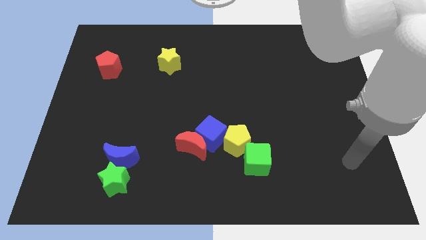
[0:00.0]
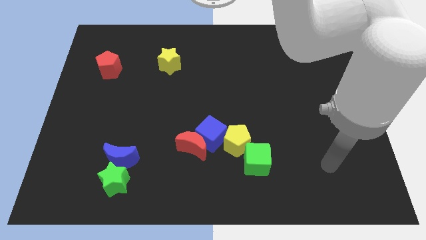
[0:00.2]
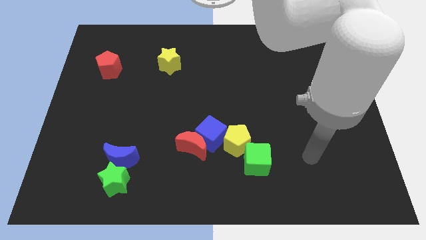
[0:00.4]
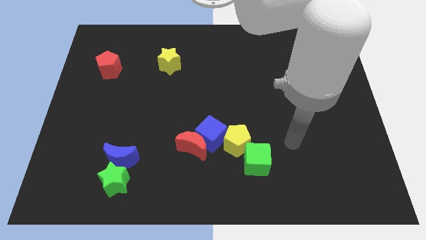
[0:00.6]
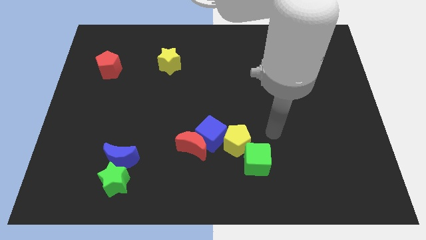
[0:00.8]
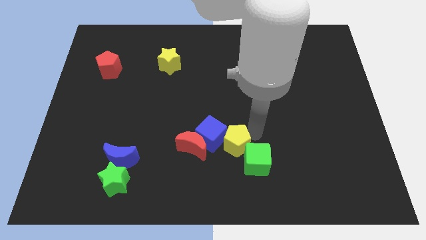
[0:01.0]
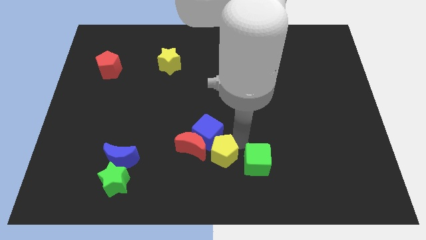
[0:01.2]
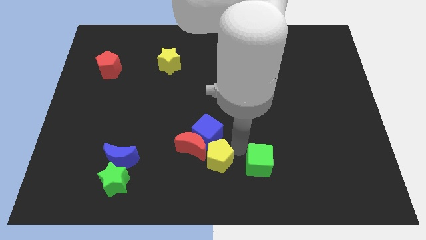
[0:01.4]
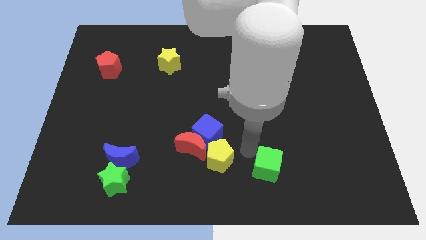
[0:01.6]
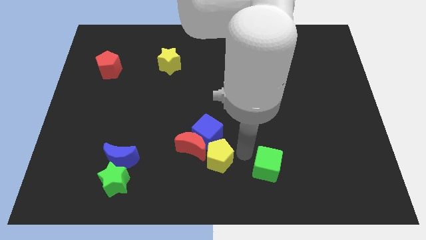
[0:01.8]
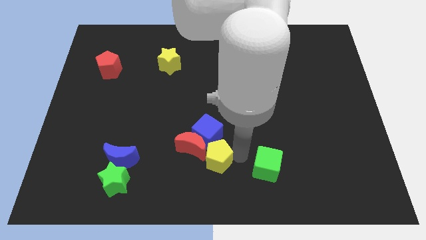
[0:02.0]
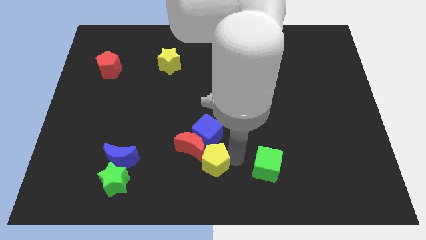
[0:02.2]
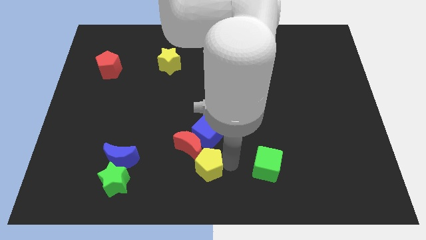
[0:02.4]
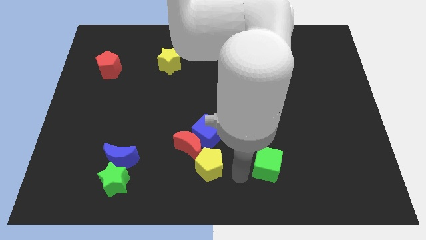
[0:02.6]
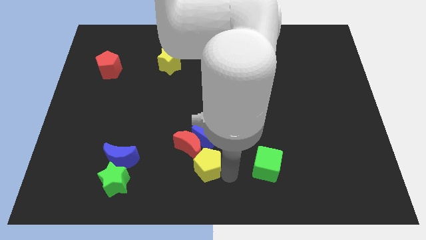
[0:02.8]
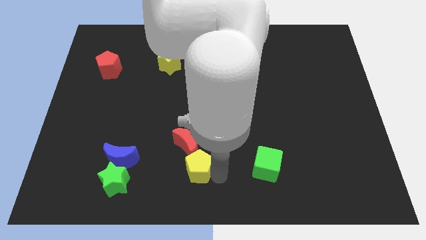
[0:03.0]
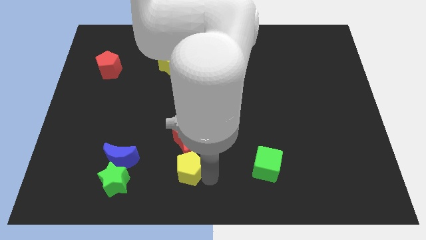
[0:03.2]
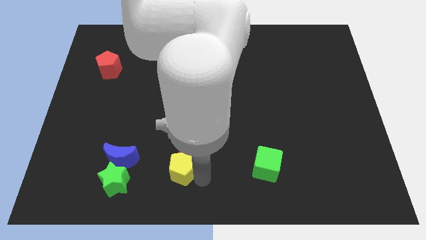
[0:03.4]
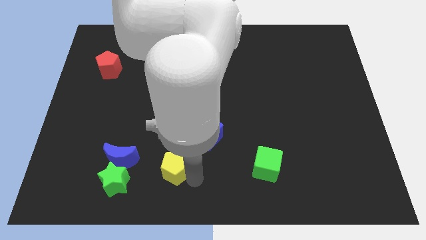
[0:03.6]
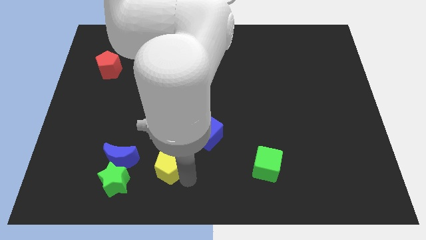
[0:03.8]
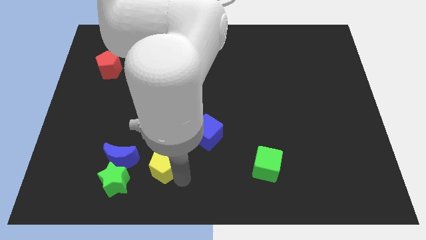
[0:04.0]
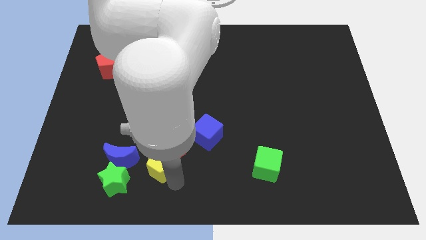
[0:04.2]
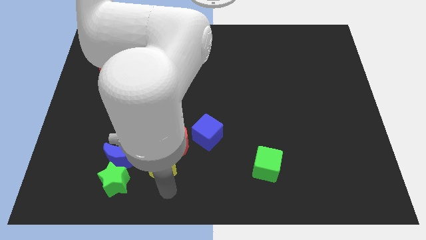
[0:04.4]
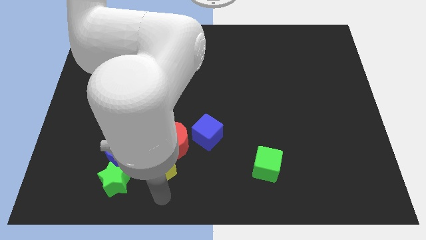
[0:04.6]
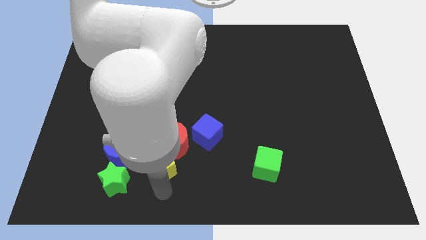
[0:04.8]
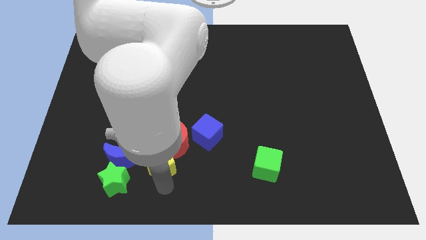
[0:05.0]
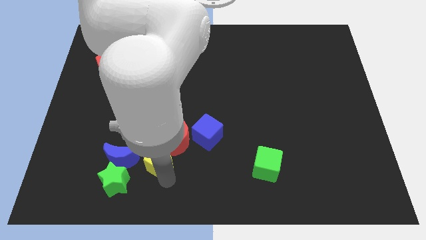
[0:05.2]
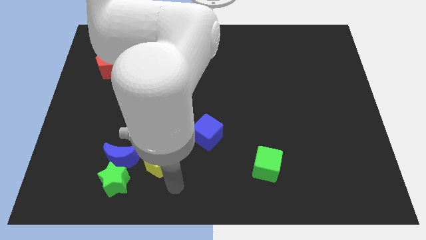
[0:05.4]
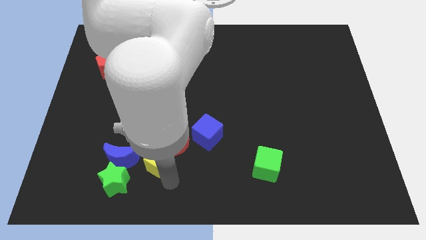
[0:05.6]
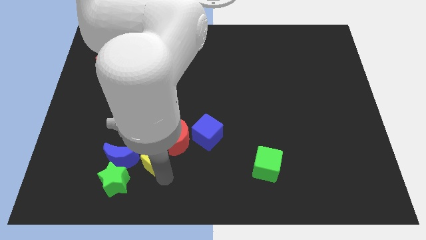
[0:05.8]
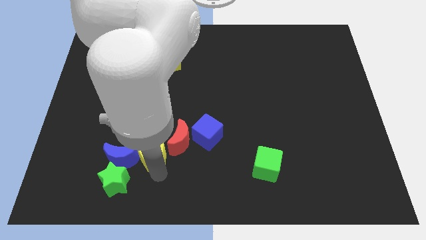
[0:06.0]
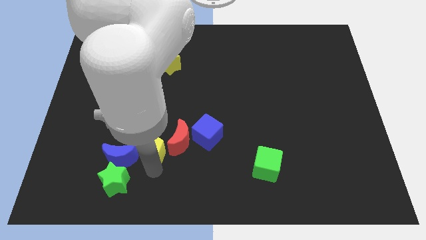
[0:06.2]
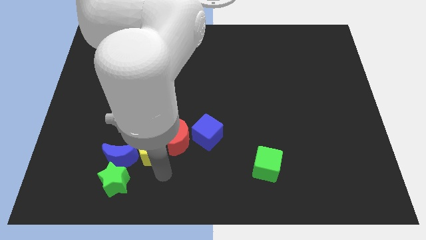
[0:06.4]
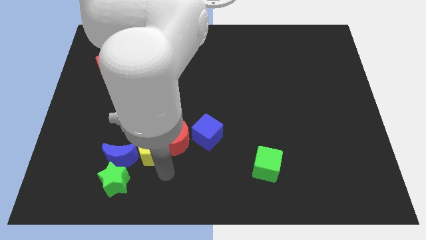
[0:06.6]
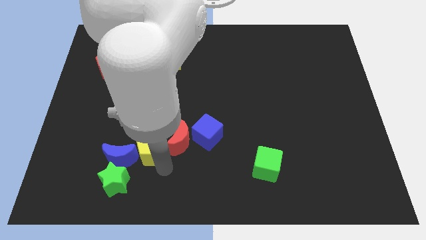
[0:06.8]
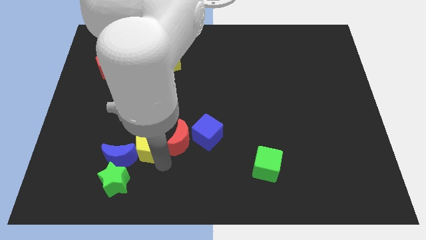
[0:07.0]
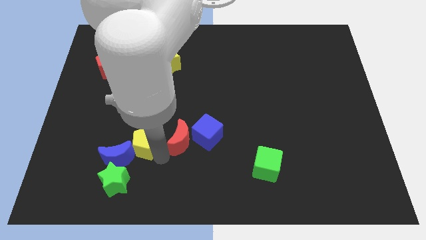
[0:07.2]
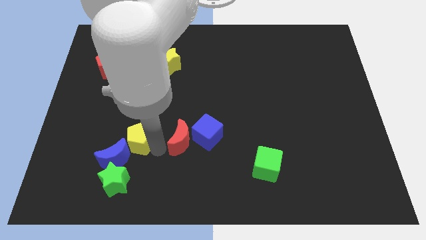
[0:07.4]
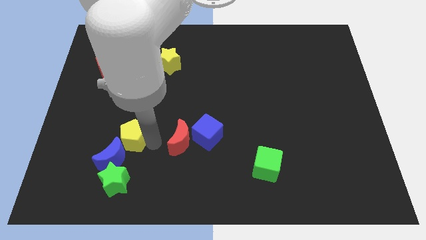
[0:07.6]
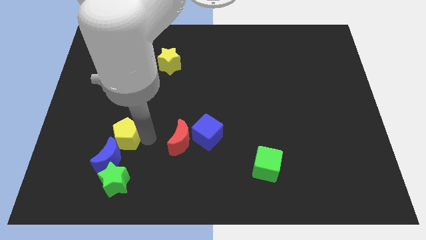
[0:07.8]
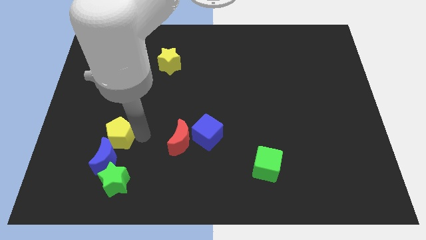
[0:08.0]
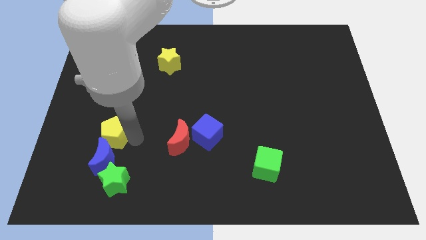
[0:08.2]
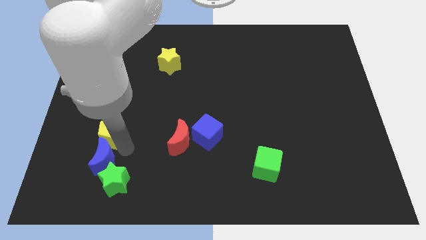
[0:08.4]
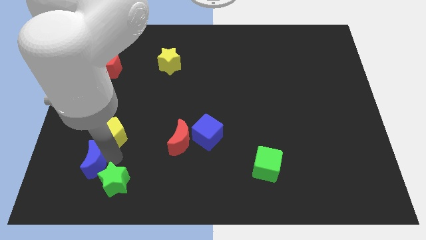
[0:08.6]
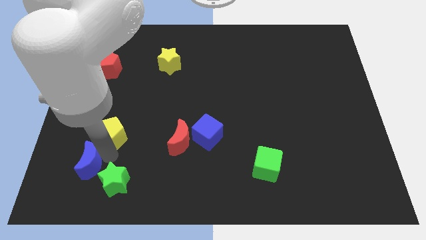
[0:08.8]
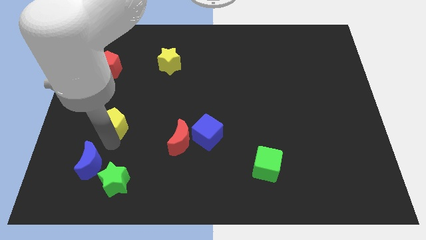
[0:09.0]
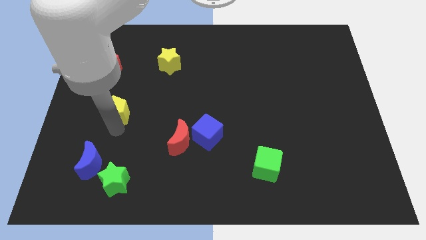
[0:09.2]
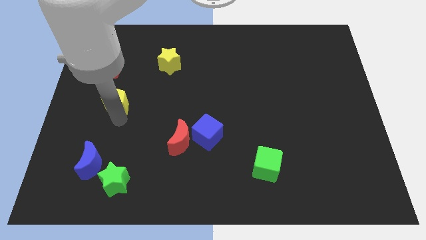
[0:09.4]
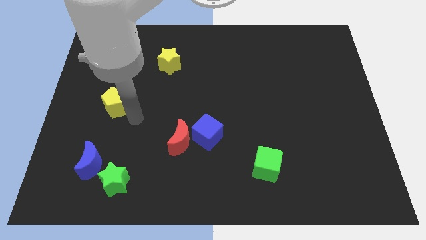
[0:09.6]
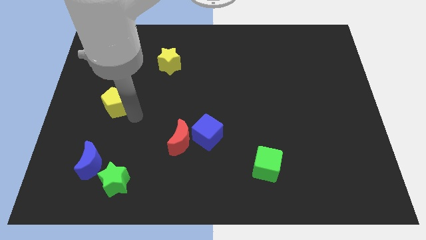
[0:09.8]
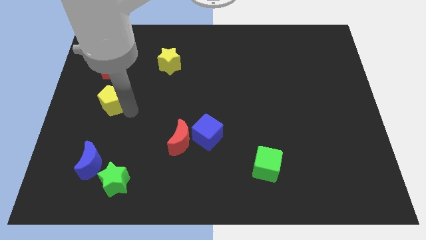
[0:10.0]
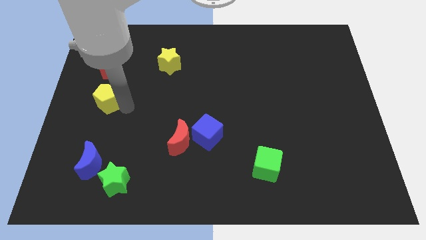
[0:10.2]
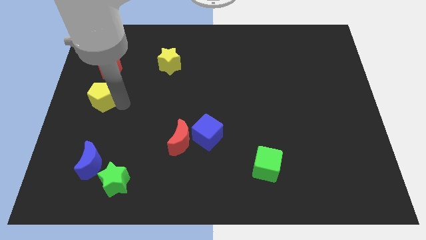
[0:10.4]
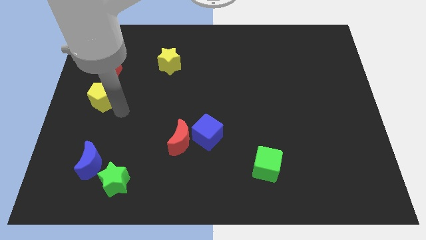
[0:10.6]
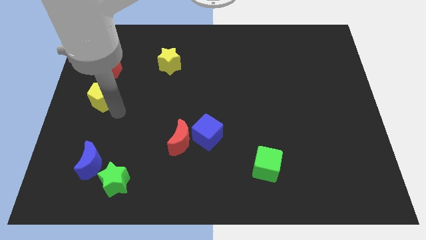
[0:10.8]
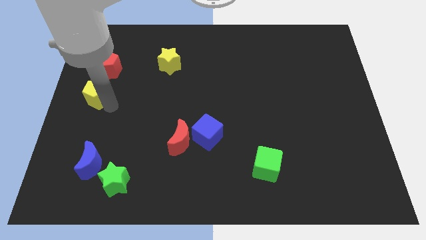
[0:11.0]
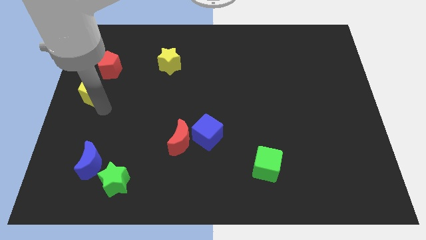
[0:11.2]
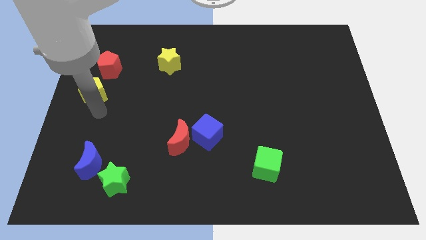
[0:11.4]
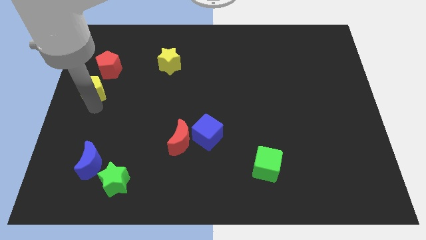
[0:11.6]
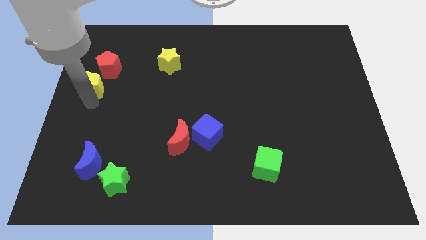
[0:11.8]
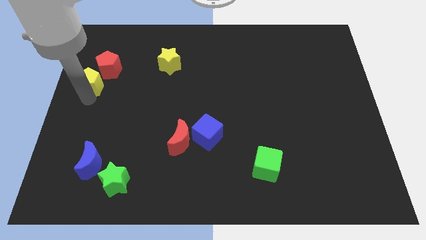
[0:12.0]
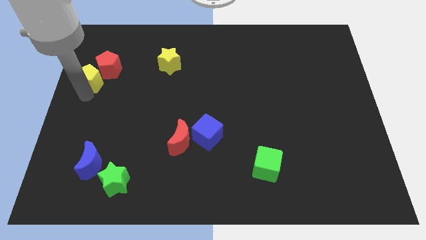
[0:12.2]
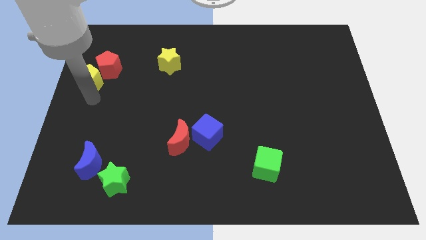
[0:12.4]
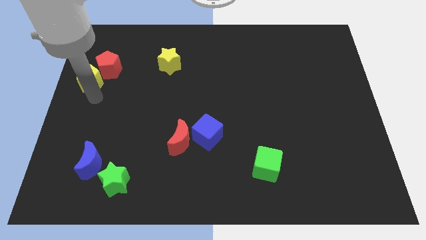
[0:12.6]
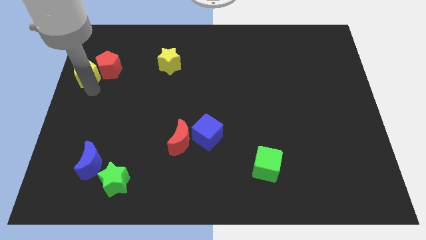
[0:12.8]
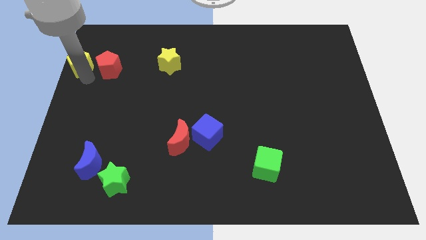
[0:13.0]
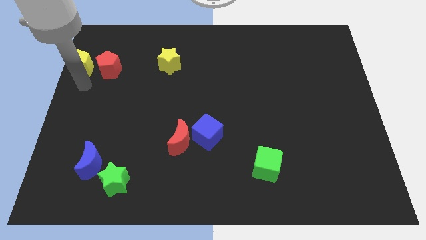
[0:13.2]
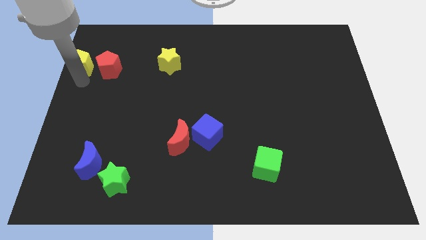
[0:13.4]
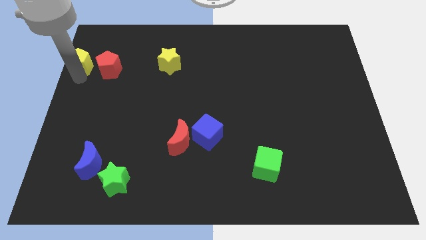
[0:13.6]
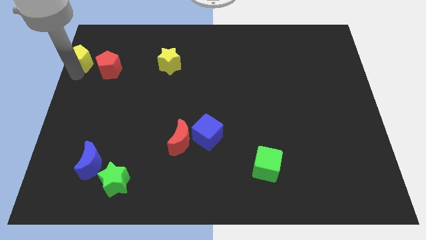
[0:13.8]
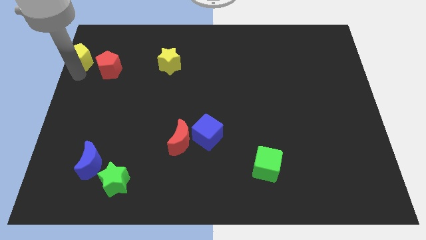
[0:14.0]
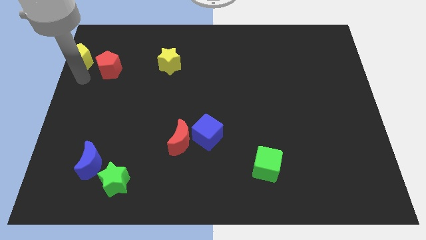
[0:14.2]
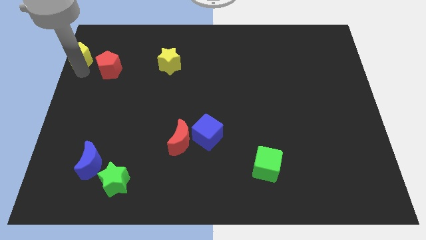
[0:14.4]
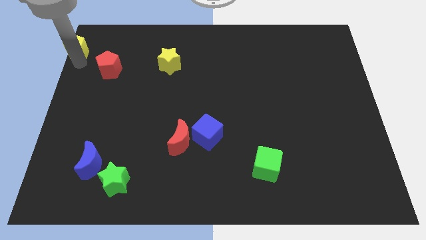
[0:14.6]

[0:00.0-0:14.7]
push the yellow pentagon to the top left of the board
